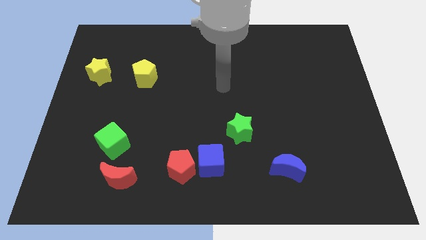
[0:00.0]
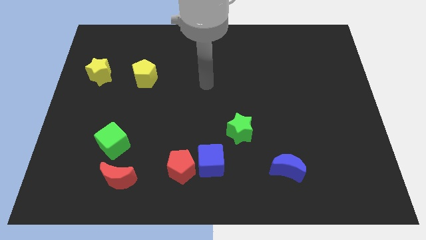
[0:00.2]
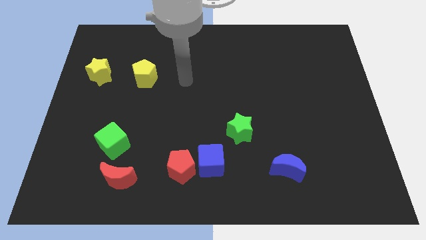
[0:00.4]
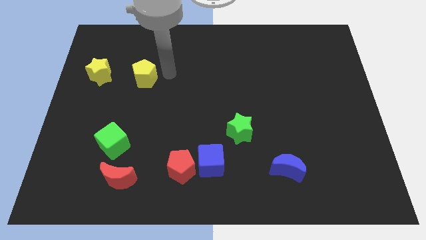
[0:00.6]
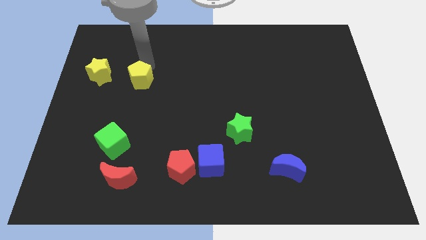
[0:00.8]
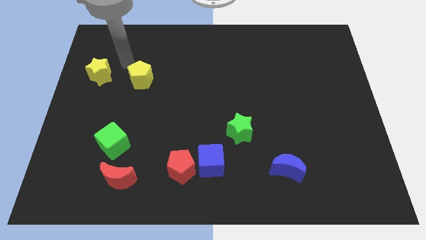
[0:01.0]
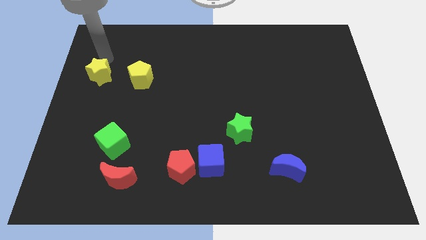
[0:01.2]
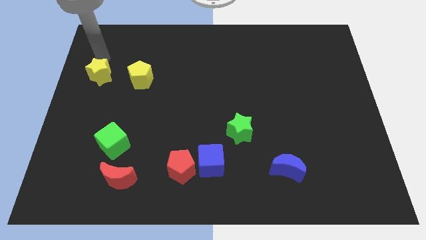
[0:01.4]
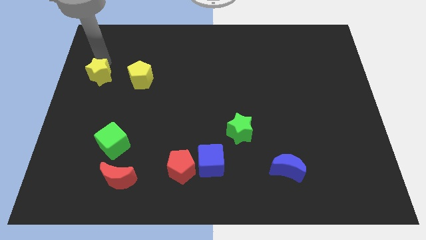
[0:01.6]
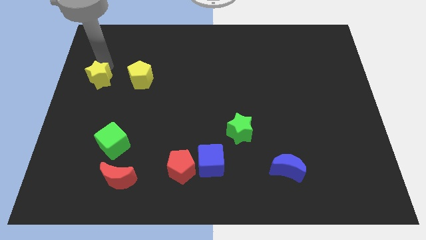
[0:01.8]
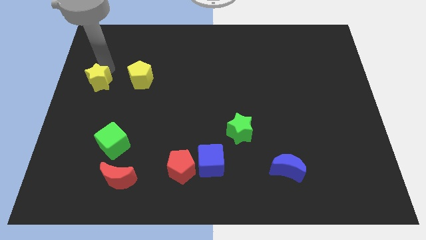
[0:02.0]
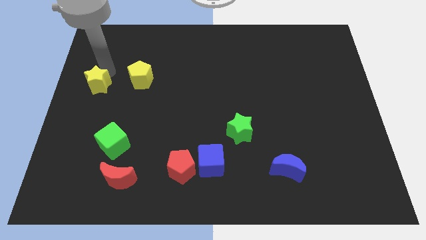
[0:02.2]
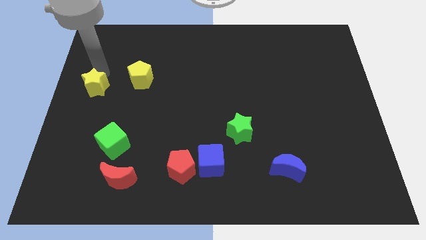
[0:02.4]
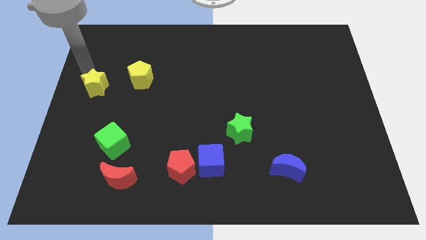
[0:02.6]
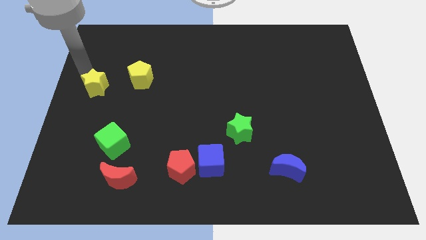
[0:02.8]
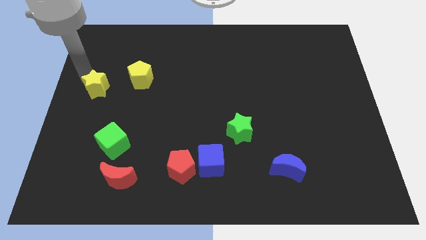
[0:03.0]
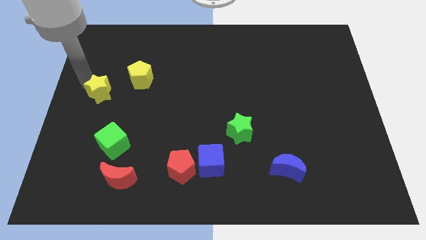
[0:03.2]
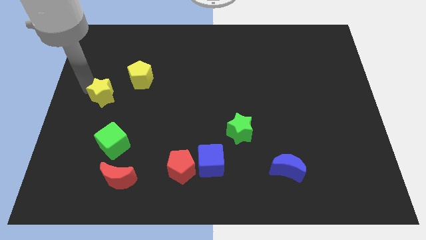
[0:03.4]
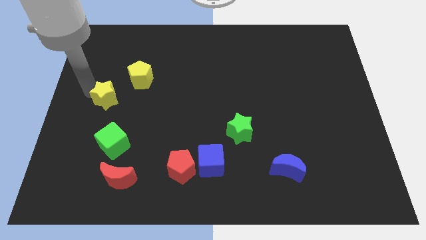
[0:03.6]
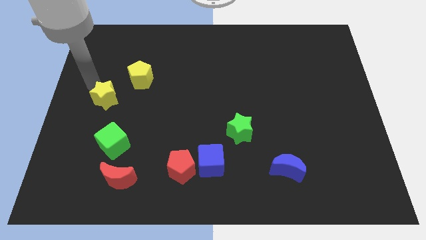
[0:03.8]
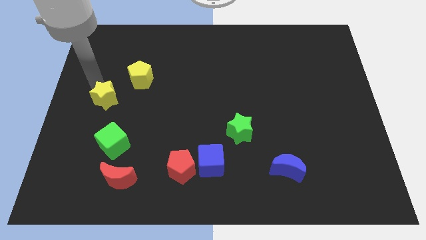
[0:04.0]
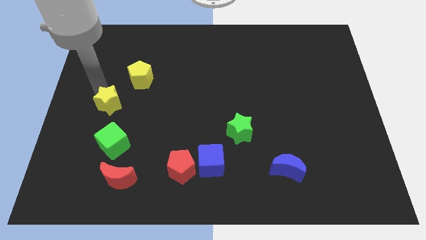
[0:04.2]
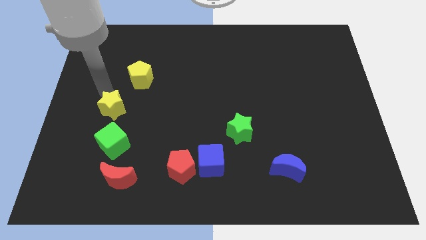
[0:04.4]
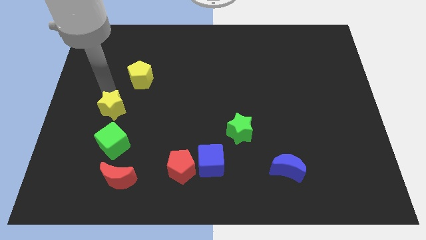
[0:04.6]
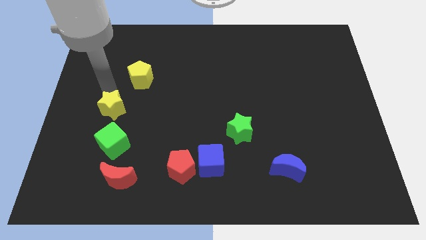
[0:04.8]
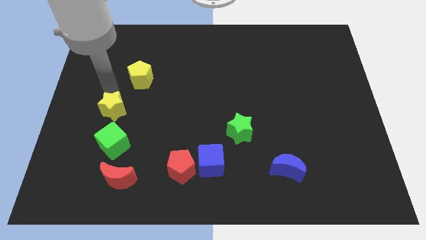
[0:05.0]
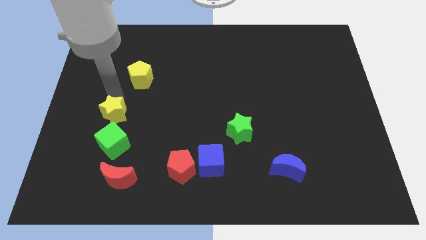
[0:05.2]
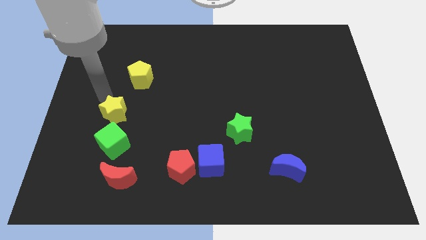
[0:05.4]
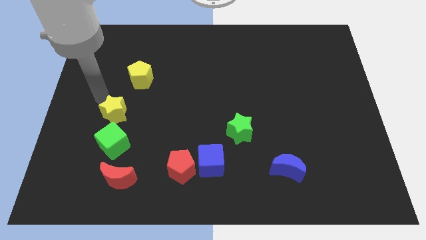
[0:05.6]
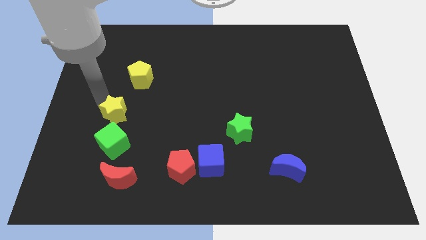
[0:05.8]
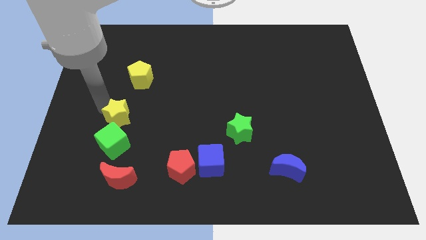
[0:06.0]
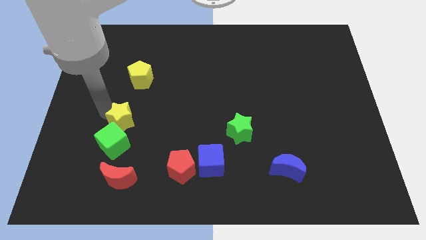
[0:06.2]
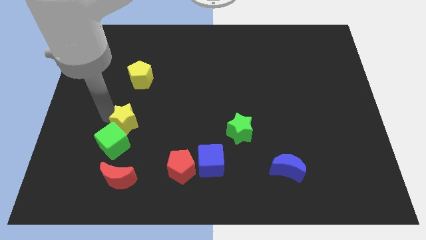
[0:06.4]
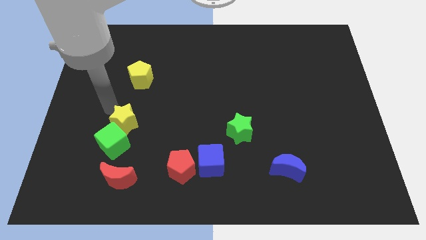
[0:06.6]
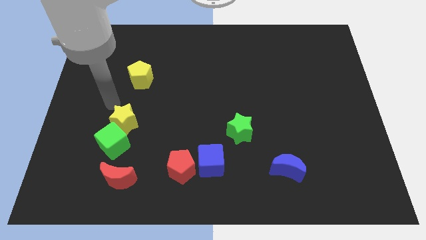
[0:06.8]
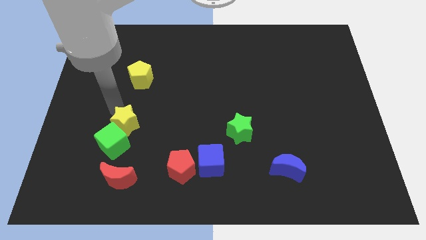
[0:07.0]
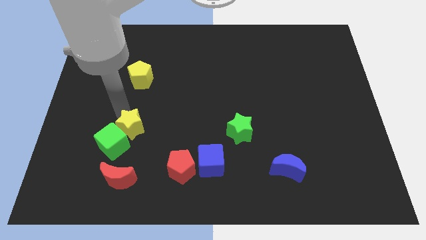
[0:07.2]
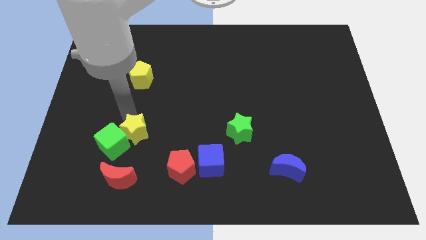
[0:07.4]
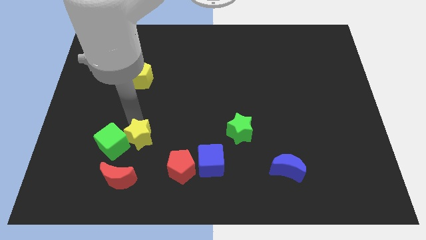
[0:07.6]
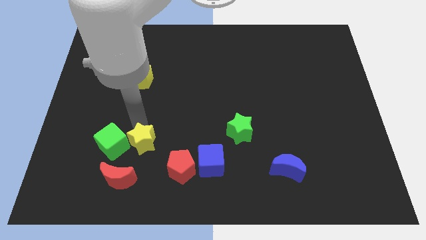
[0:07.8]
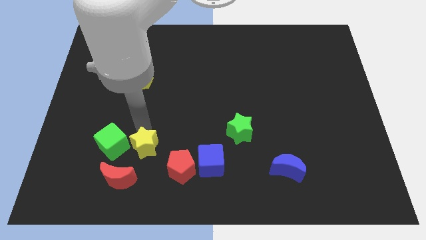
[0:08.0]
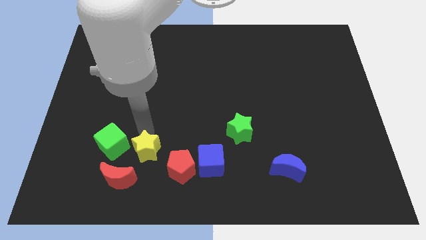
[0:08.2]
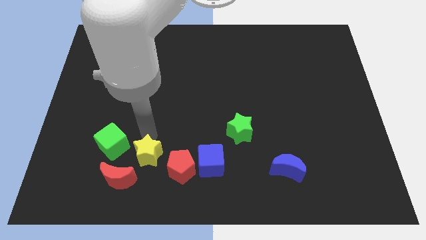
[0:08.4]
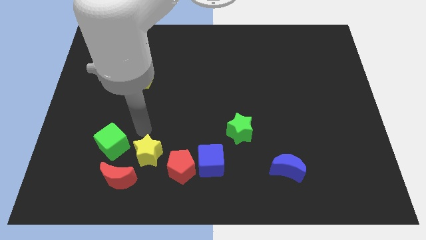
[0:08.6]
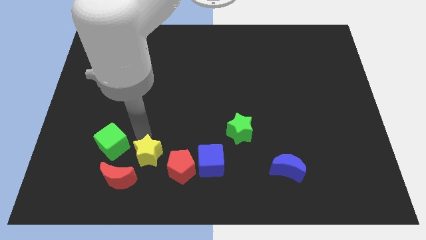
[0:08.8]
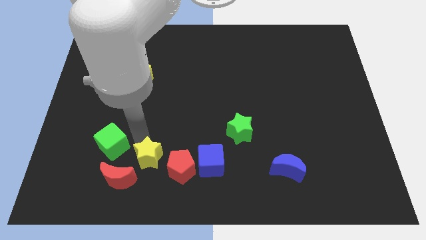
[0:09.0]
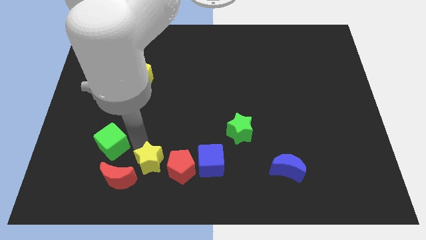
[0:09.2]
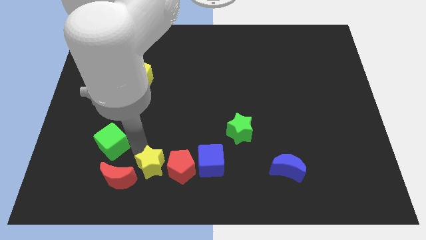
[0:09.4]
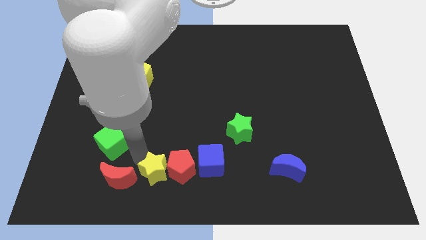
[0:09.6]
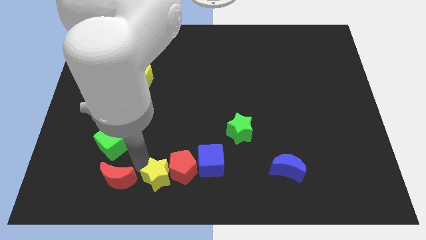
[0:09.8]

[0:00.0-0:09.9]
push the yellow star to the bottom

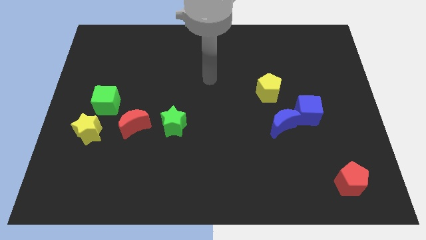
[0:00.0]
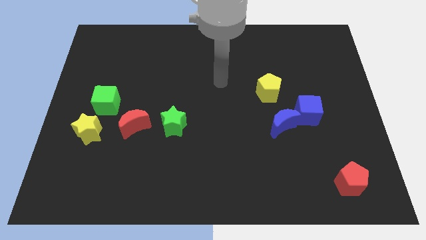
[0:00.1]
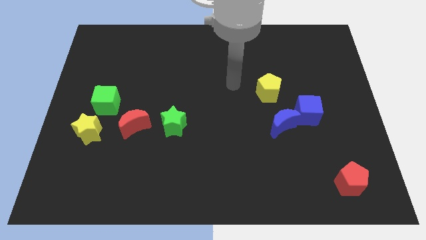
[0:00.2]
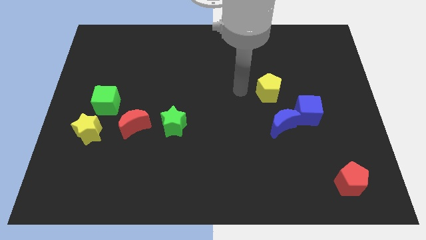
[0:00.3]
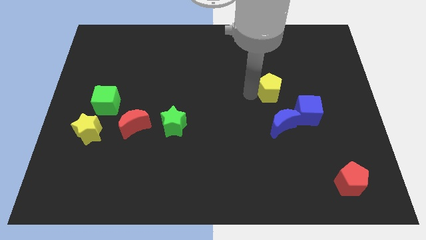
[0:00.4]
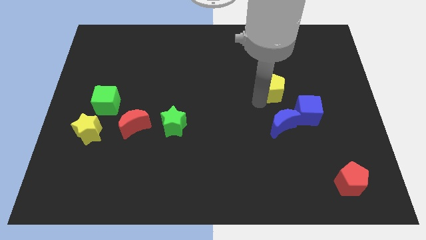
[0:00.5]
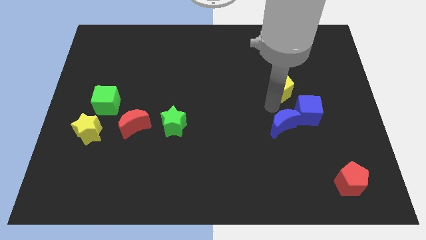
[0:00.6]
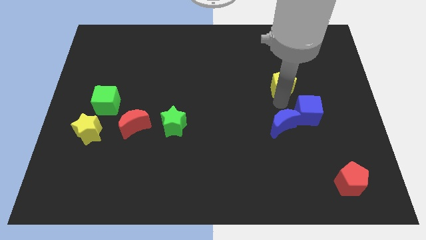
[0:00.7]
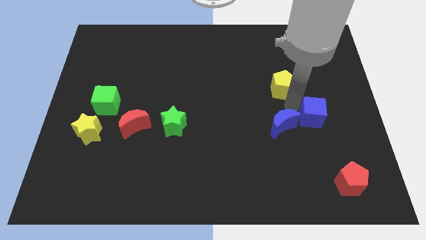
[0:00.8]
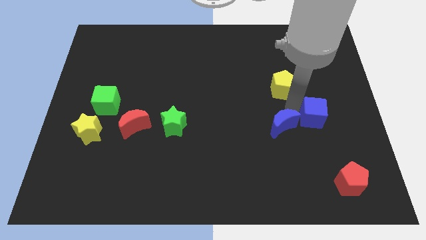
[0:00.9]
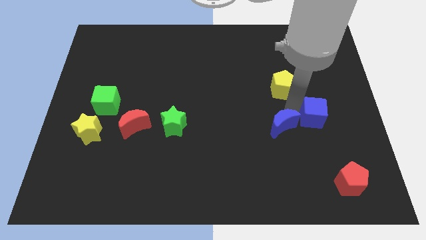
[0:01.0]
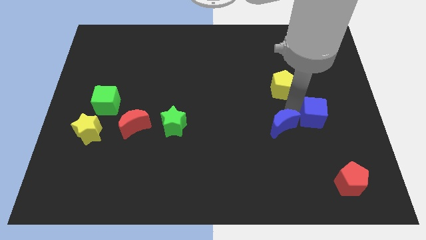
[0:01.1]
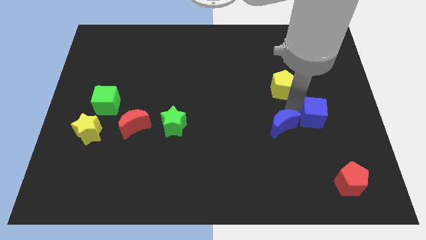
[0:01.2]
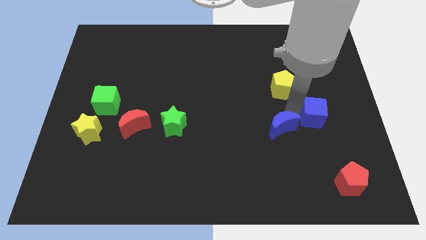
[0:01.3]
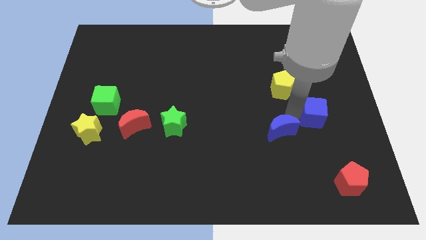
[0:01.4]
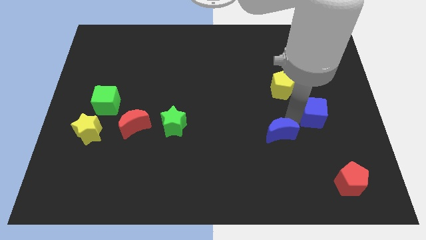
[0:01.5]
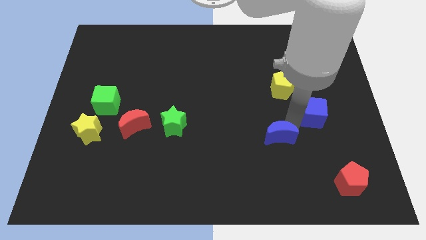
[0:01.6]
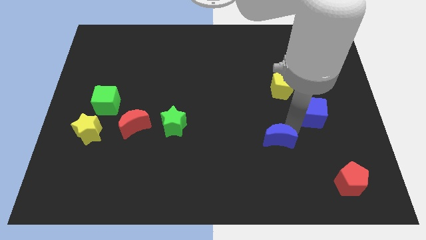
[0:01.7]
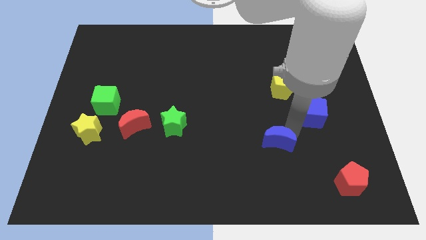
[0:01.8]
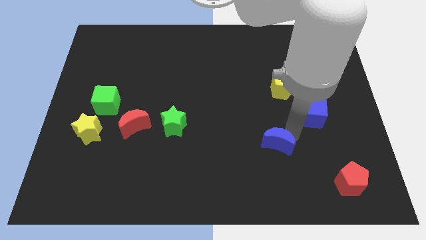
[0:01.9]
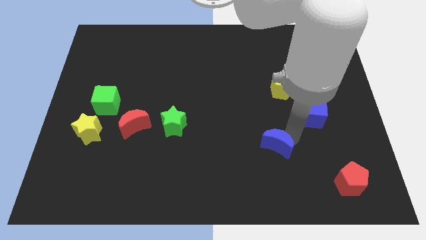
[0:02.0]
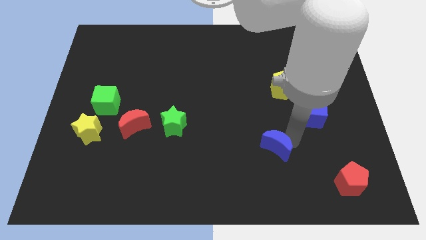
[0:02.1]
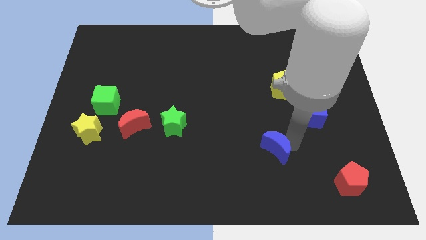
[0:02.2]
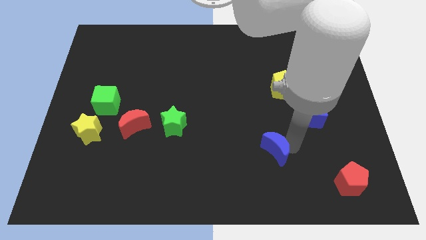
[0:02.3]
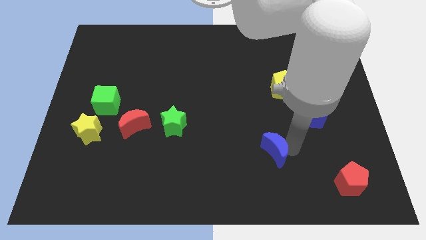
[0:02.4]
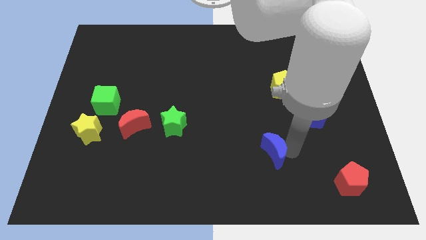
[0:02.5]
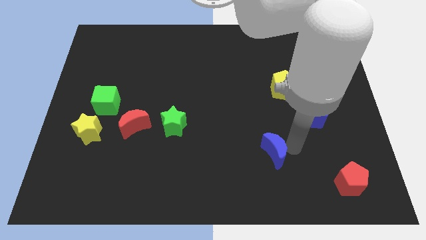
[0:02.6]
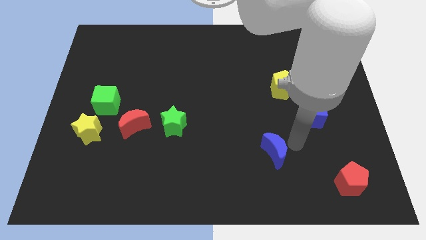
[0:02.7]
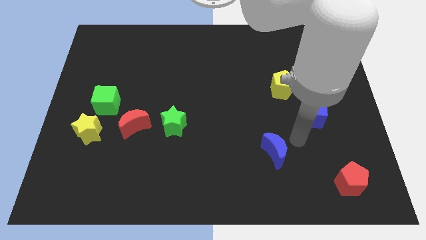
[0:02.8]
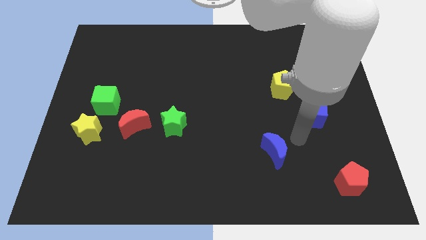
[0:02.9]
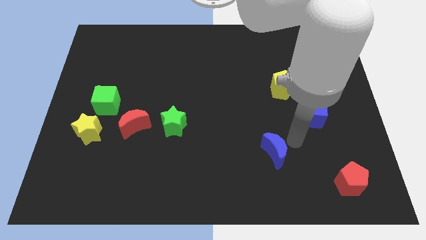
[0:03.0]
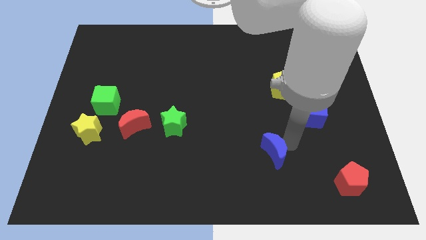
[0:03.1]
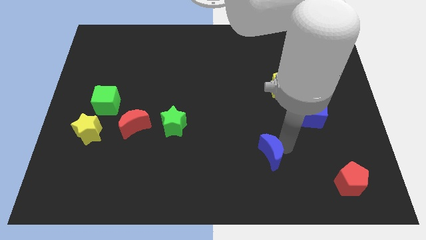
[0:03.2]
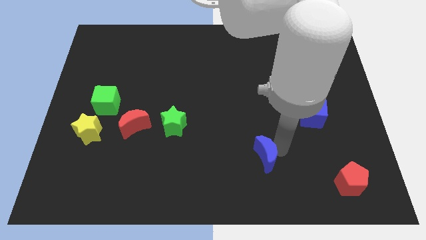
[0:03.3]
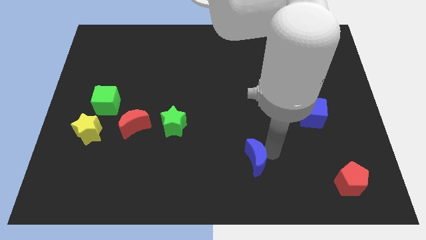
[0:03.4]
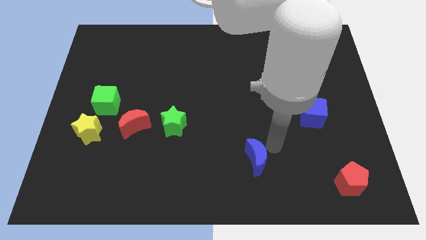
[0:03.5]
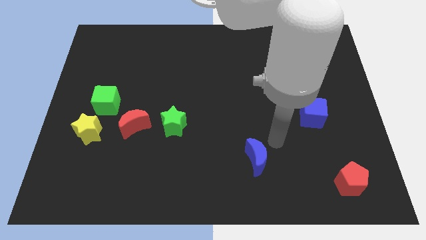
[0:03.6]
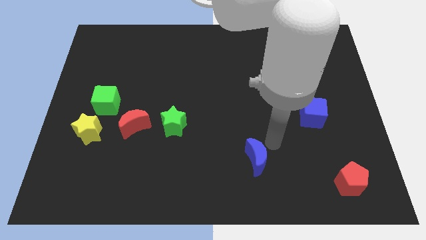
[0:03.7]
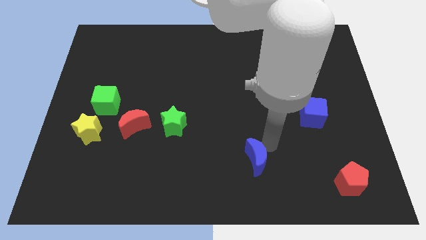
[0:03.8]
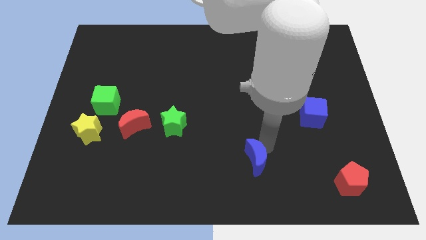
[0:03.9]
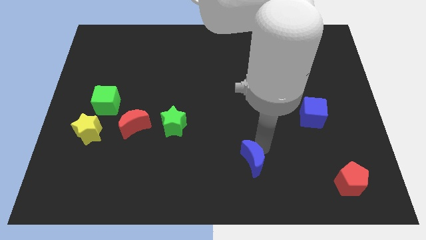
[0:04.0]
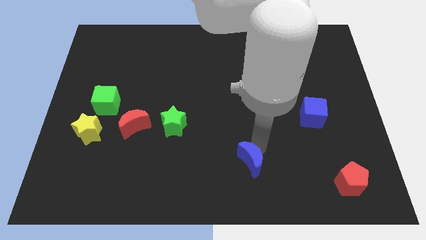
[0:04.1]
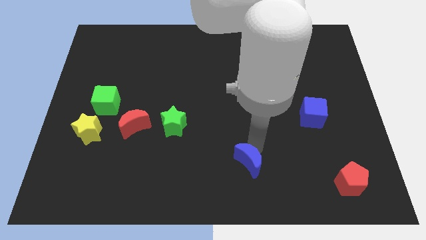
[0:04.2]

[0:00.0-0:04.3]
move the blue moon to the bottom side
